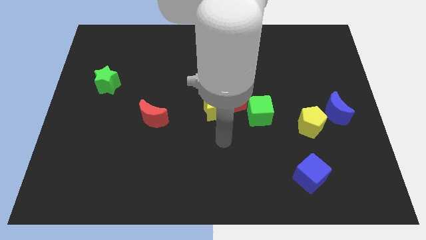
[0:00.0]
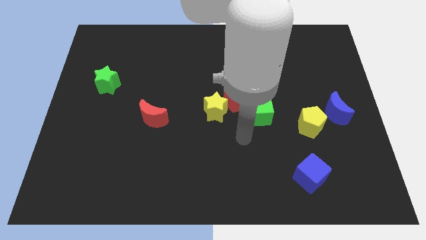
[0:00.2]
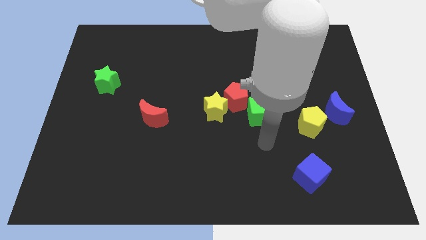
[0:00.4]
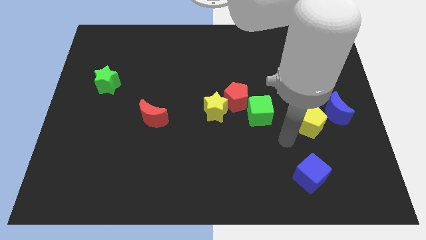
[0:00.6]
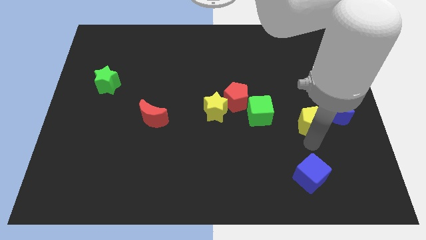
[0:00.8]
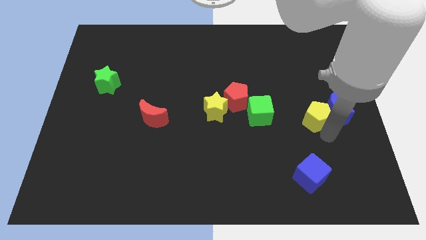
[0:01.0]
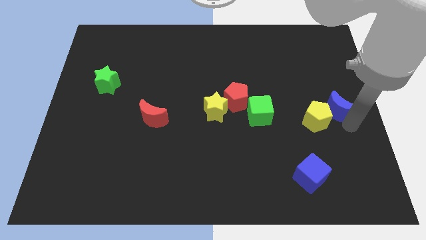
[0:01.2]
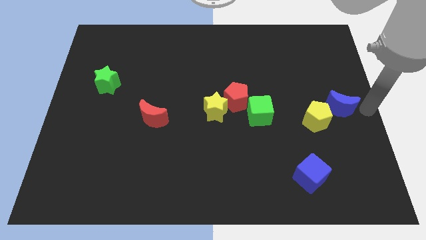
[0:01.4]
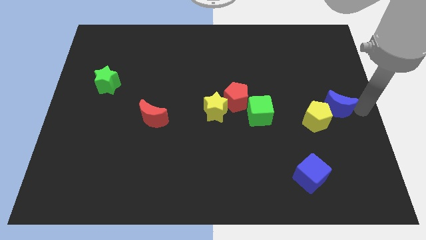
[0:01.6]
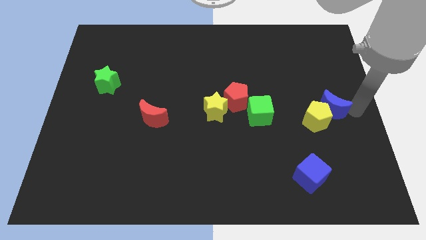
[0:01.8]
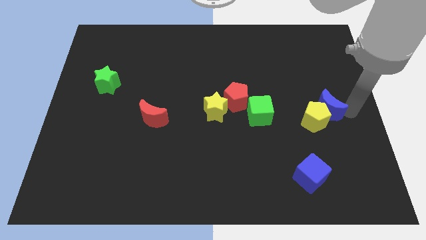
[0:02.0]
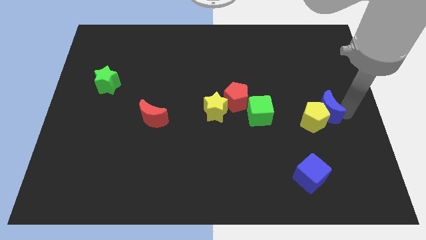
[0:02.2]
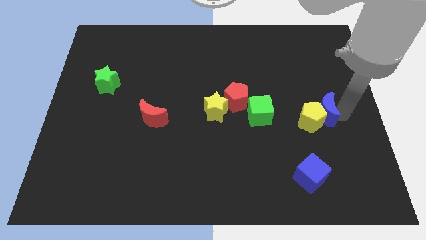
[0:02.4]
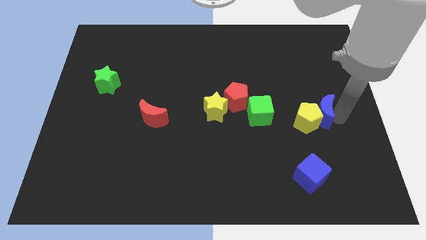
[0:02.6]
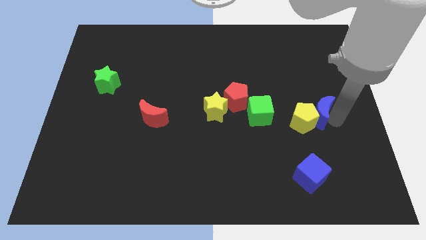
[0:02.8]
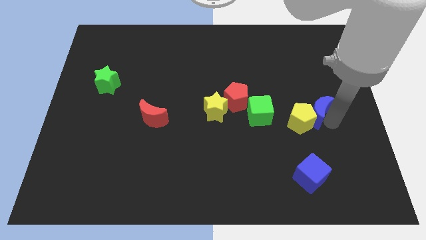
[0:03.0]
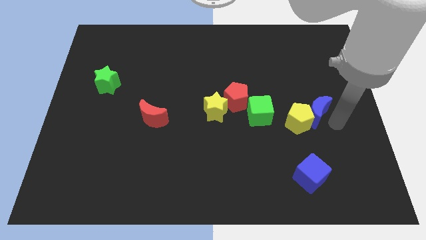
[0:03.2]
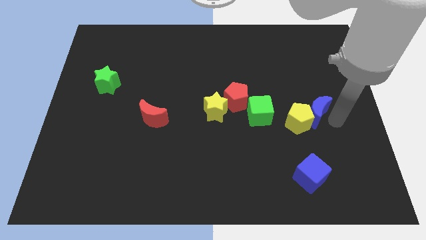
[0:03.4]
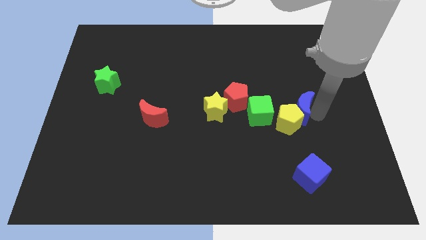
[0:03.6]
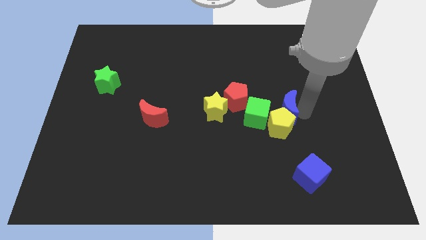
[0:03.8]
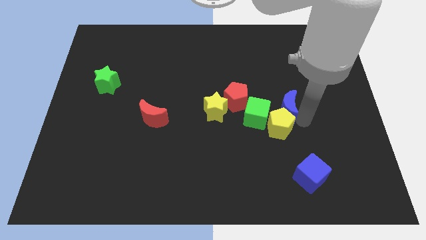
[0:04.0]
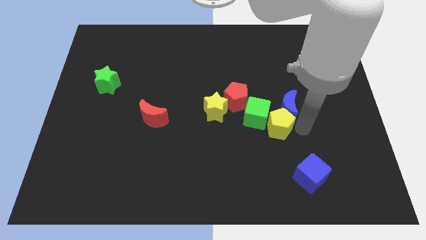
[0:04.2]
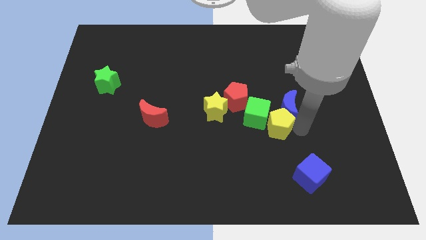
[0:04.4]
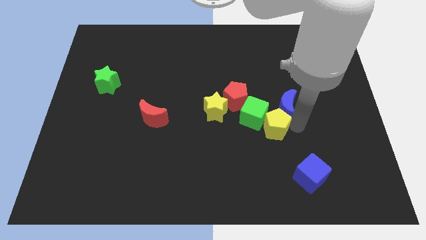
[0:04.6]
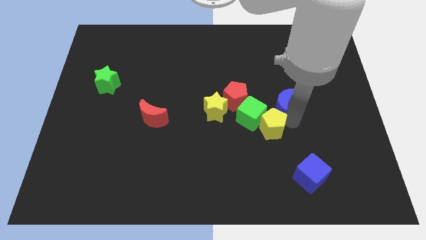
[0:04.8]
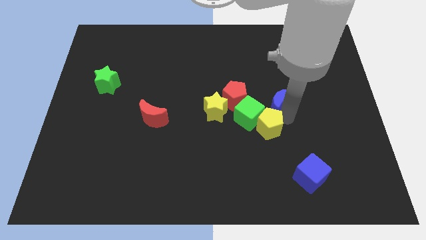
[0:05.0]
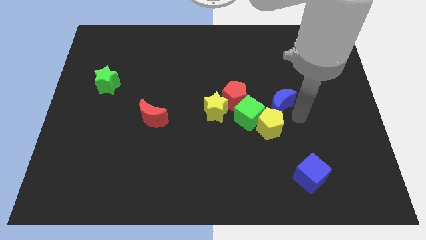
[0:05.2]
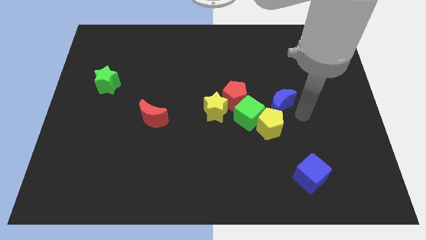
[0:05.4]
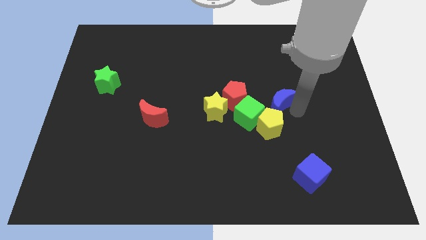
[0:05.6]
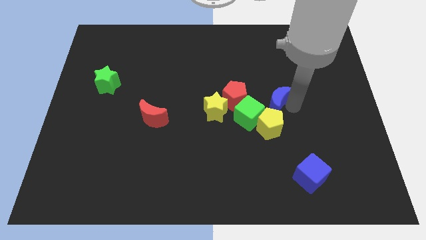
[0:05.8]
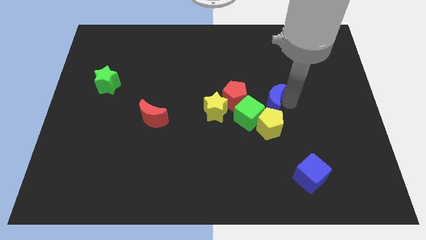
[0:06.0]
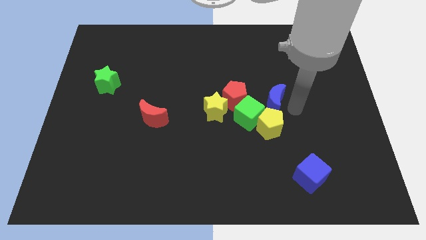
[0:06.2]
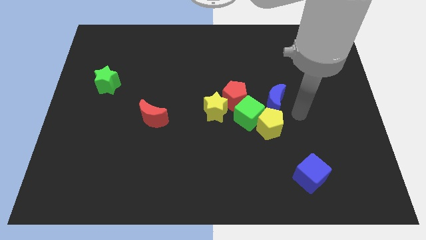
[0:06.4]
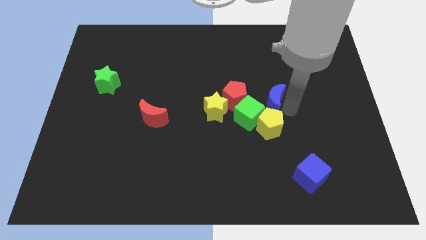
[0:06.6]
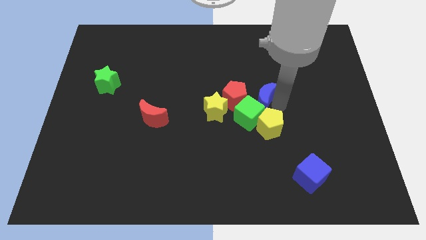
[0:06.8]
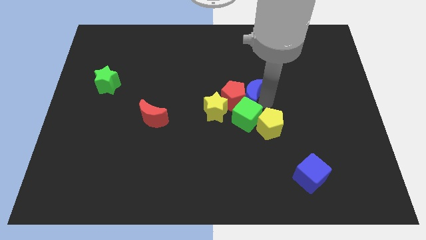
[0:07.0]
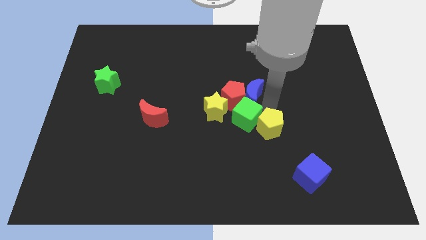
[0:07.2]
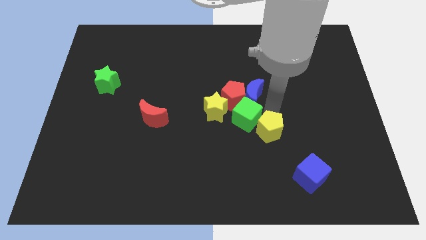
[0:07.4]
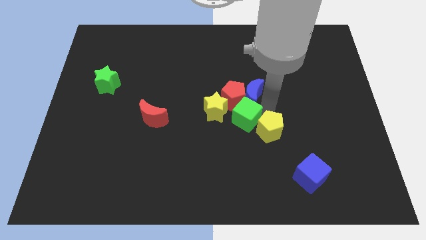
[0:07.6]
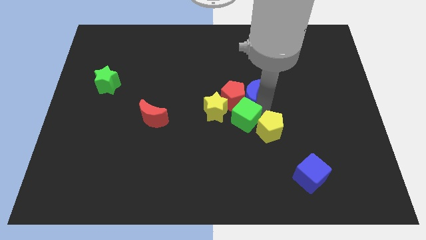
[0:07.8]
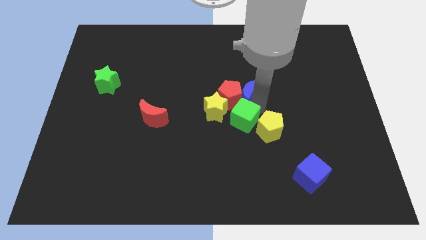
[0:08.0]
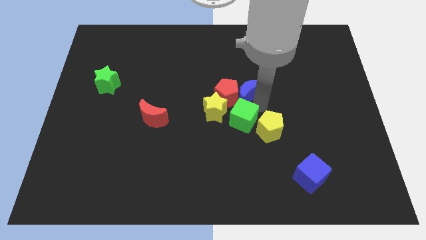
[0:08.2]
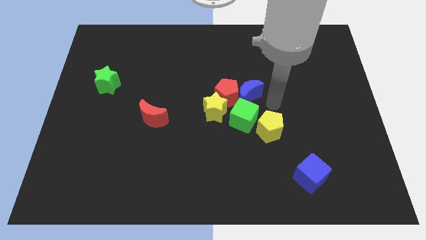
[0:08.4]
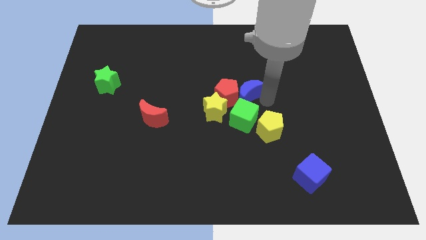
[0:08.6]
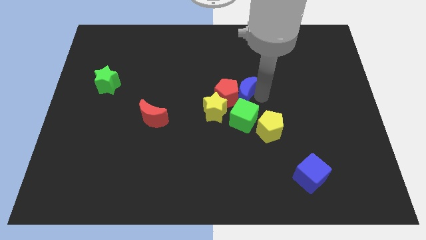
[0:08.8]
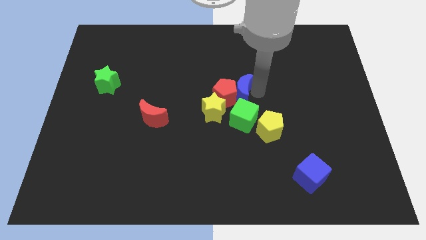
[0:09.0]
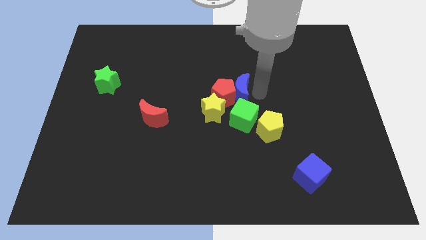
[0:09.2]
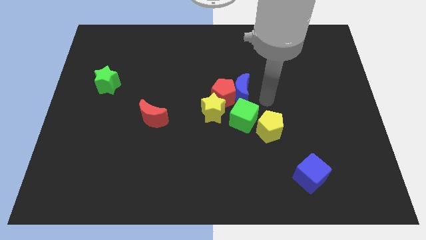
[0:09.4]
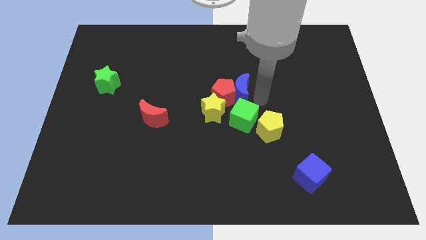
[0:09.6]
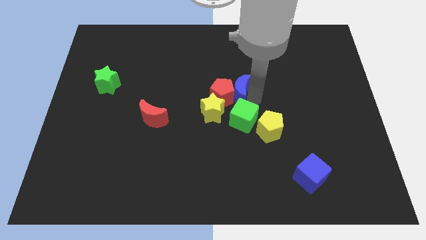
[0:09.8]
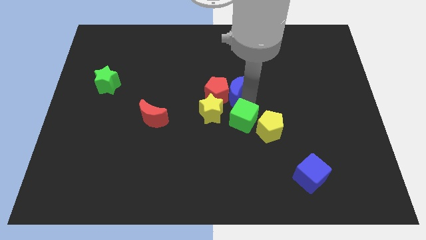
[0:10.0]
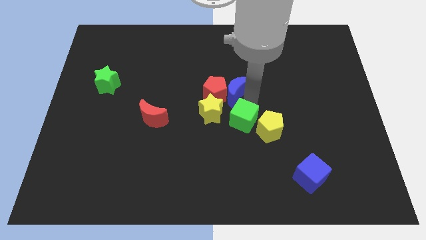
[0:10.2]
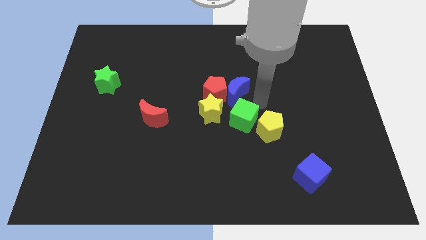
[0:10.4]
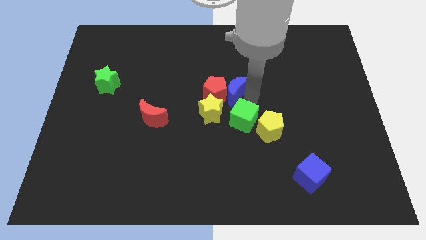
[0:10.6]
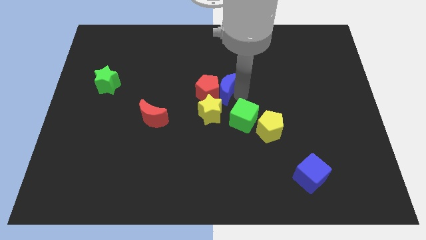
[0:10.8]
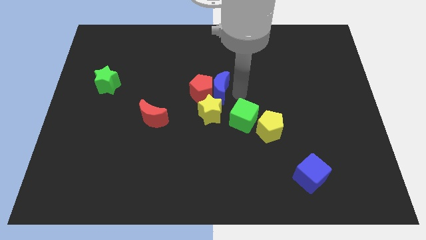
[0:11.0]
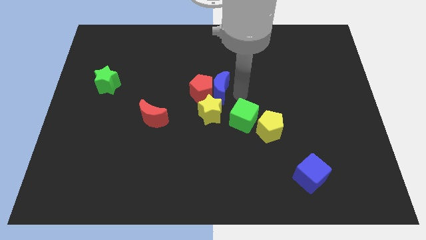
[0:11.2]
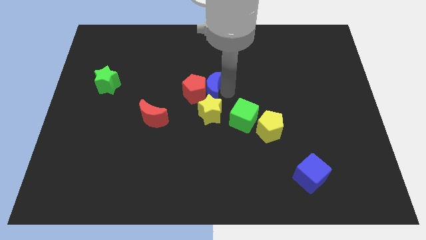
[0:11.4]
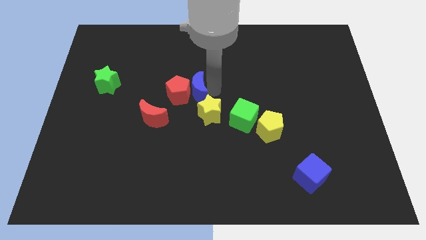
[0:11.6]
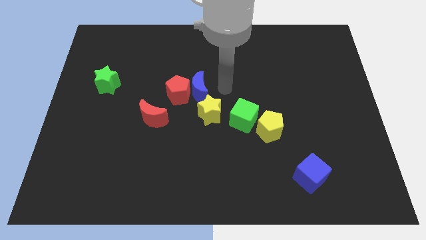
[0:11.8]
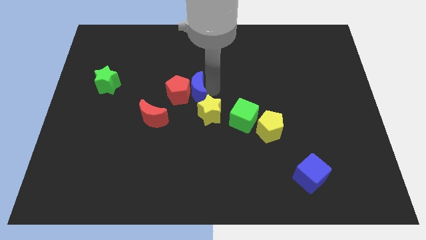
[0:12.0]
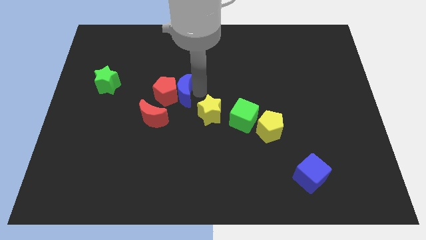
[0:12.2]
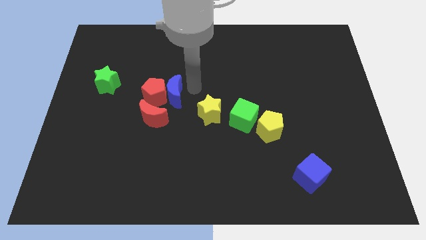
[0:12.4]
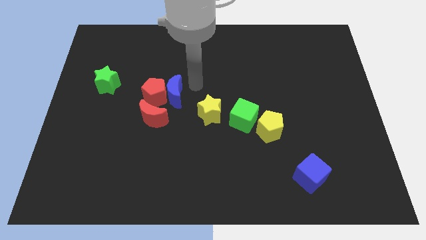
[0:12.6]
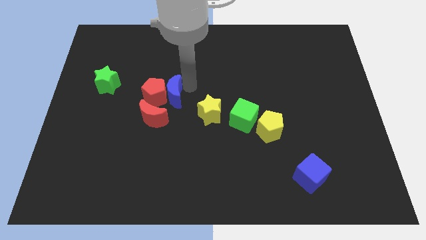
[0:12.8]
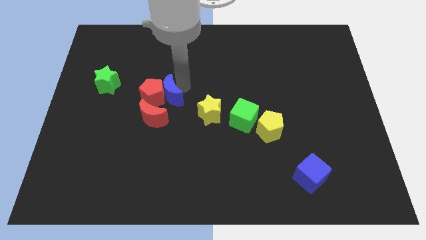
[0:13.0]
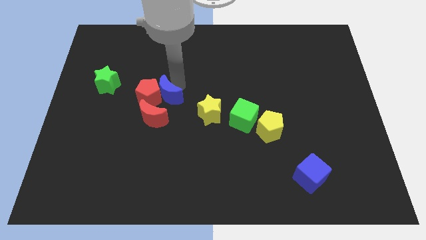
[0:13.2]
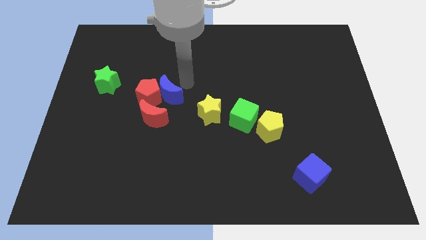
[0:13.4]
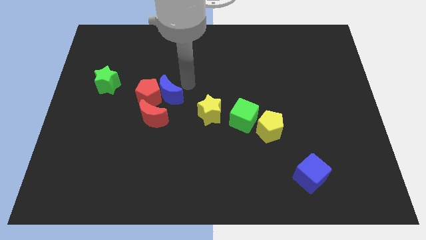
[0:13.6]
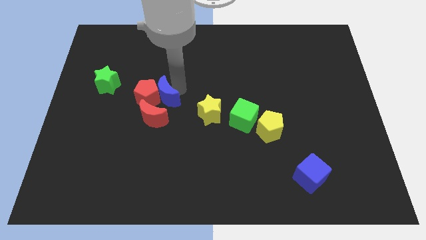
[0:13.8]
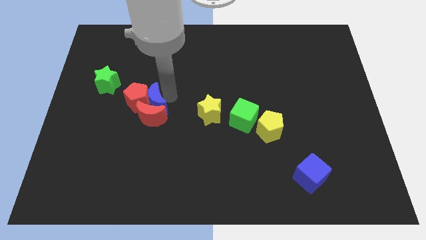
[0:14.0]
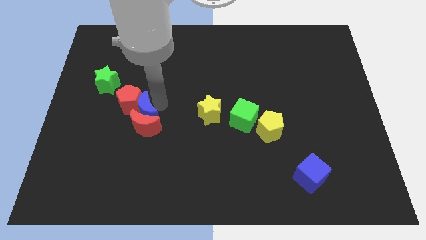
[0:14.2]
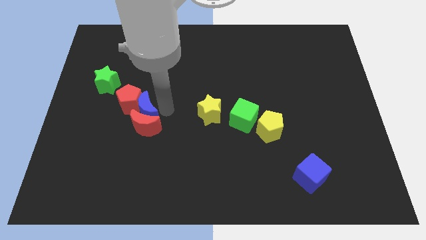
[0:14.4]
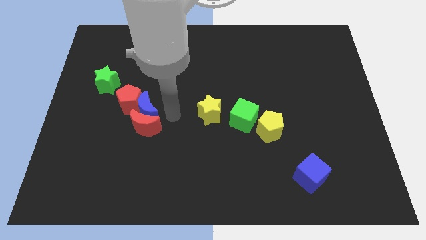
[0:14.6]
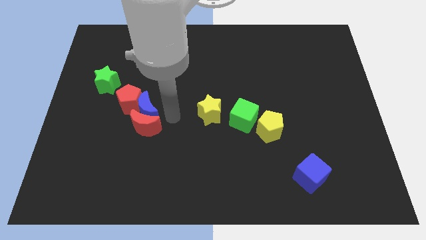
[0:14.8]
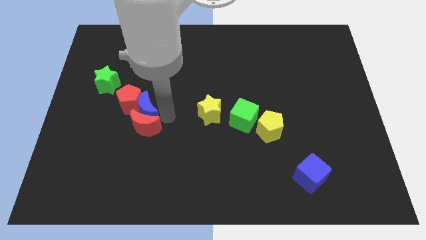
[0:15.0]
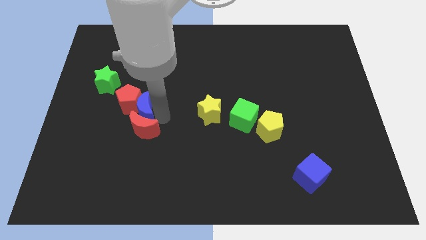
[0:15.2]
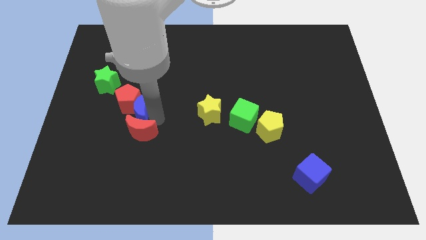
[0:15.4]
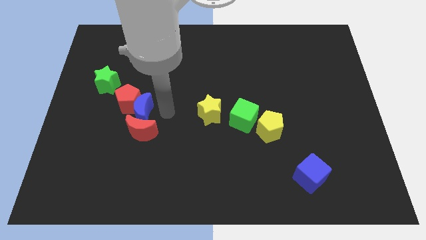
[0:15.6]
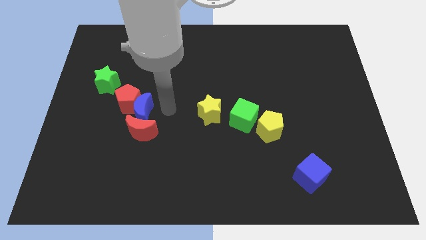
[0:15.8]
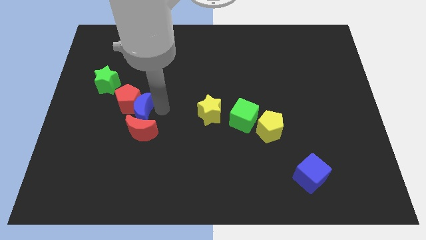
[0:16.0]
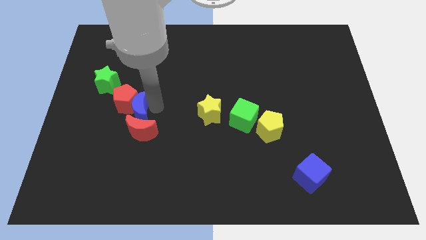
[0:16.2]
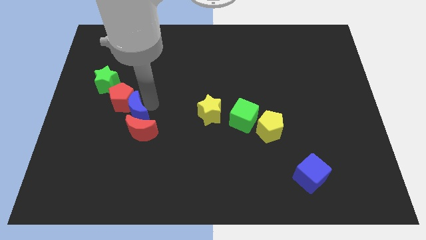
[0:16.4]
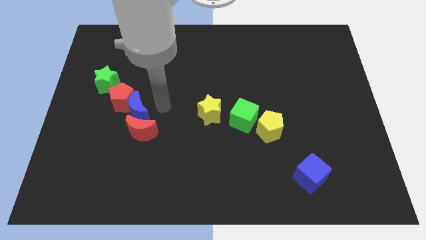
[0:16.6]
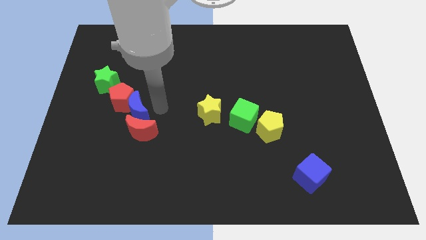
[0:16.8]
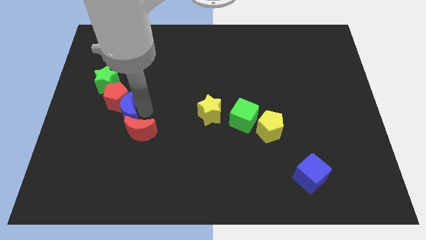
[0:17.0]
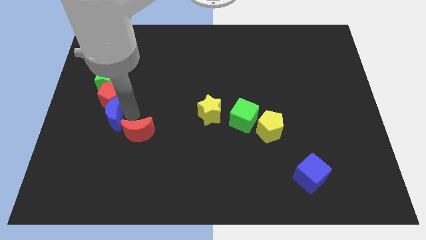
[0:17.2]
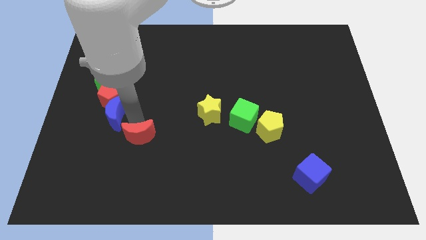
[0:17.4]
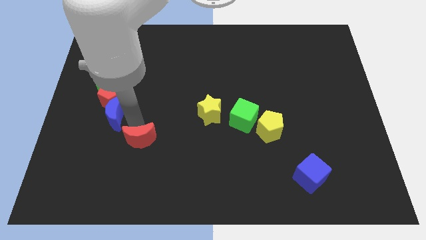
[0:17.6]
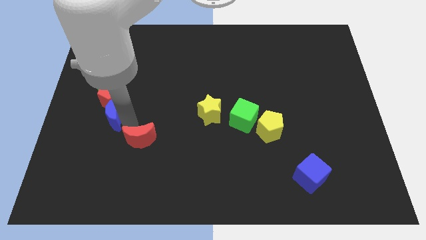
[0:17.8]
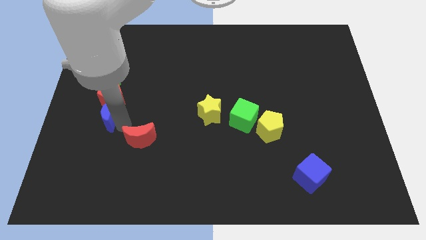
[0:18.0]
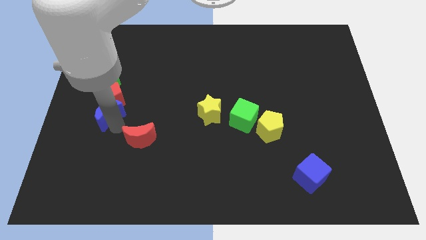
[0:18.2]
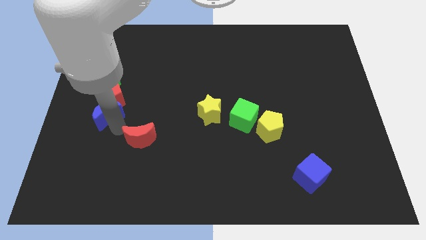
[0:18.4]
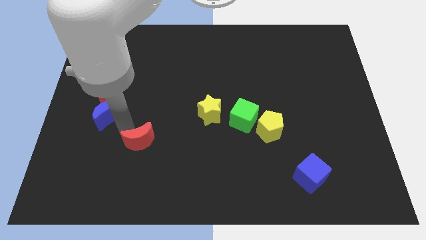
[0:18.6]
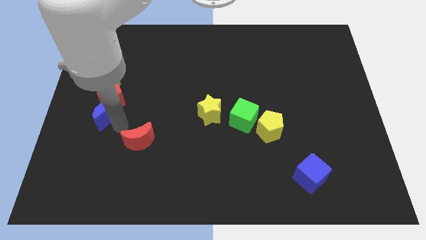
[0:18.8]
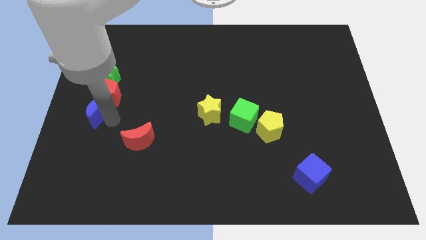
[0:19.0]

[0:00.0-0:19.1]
slide the blue moon to the left side
